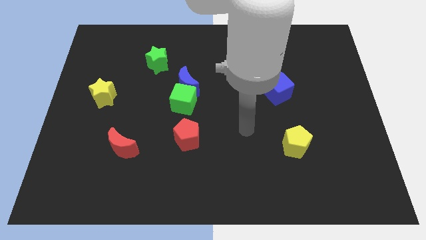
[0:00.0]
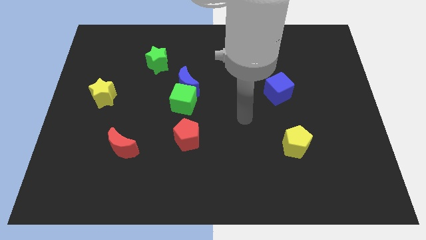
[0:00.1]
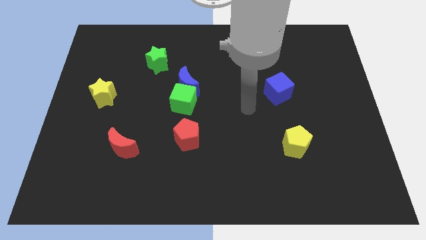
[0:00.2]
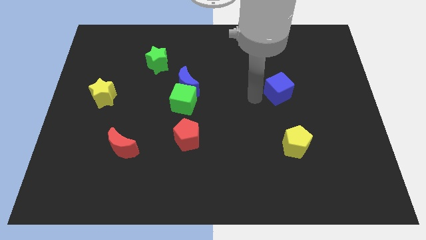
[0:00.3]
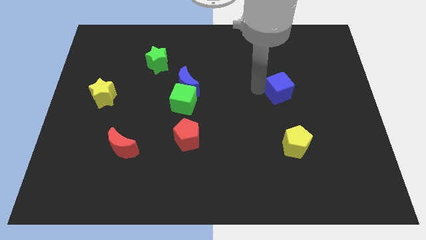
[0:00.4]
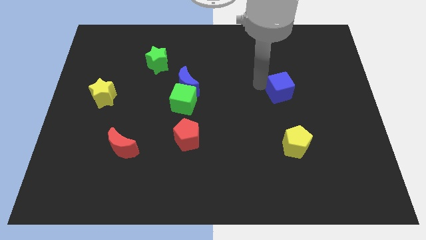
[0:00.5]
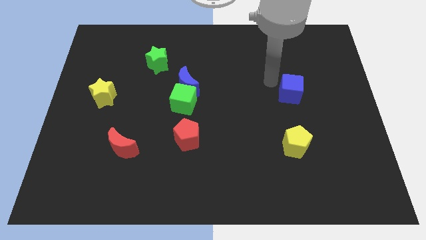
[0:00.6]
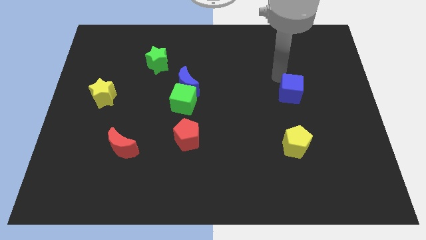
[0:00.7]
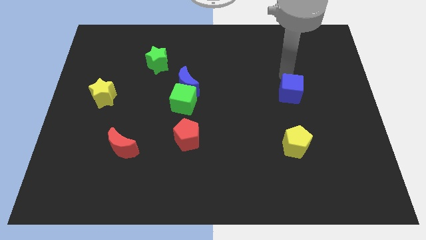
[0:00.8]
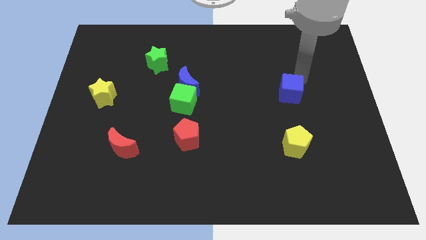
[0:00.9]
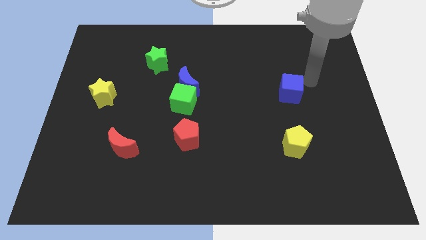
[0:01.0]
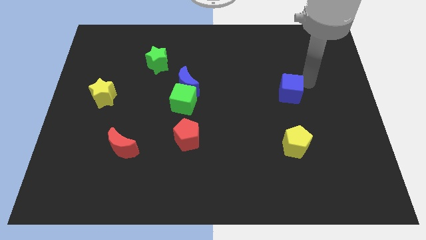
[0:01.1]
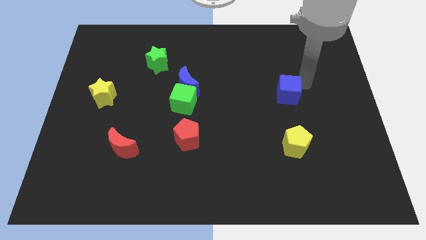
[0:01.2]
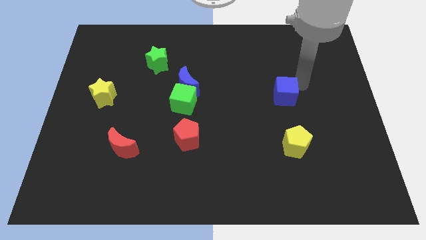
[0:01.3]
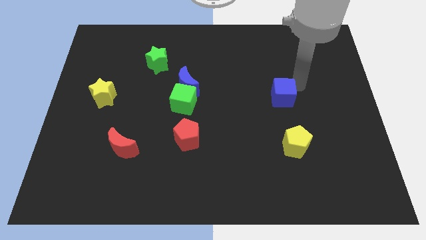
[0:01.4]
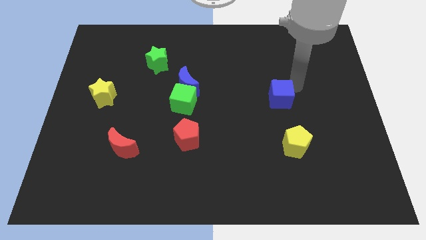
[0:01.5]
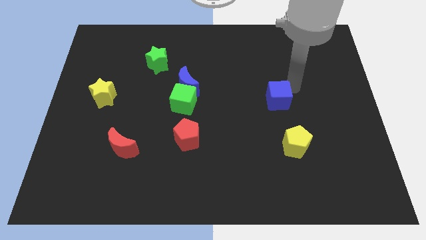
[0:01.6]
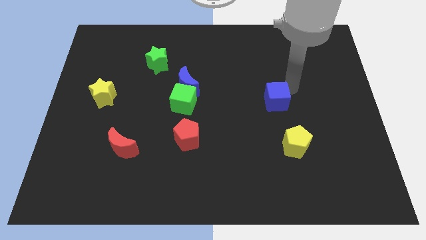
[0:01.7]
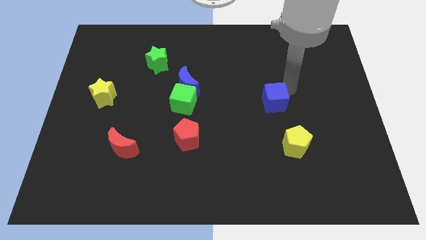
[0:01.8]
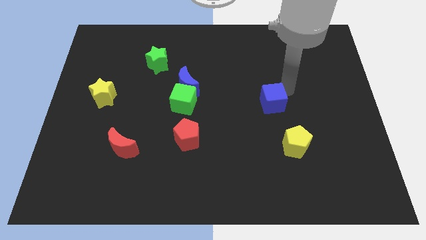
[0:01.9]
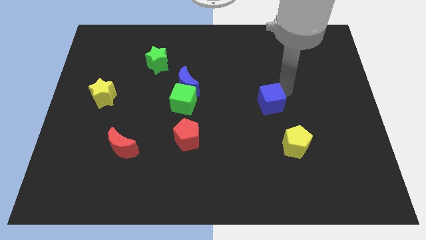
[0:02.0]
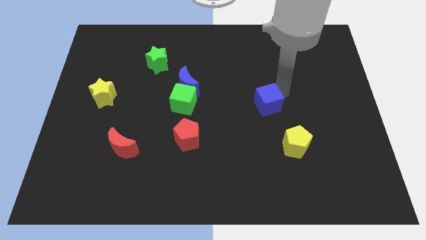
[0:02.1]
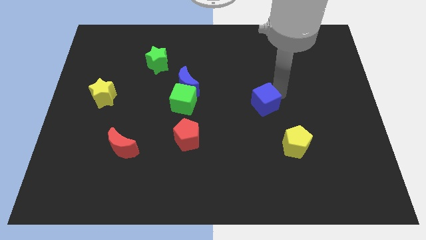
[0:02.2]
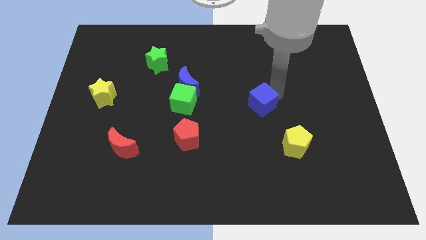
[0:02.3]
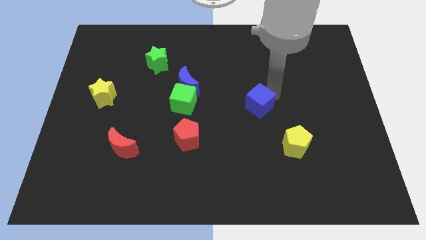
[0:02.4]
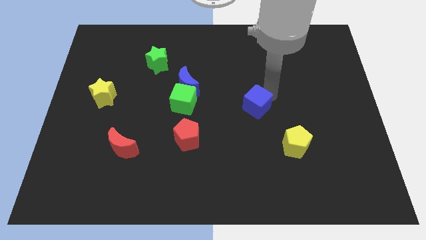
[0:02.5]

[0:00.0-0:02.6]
slightly push the blue cube downwards and left

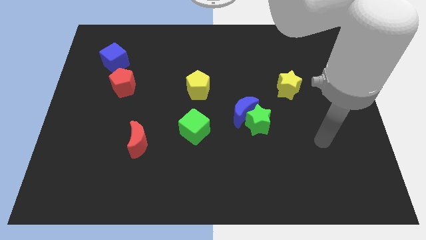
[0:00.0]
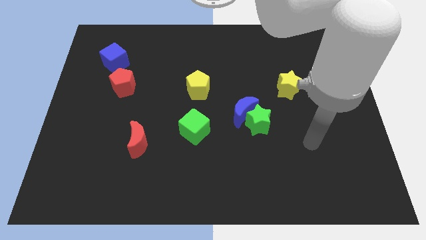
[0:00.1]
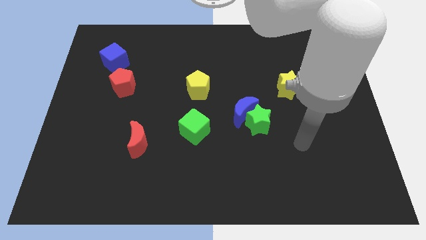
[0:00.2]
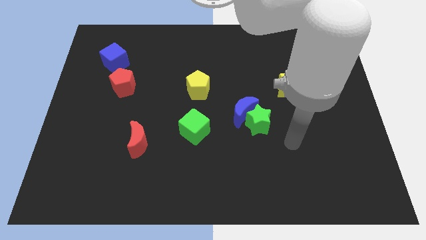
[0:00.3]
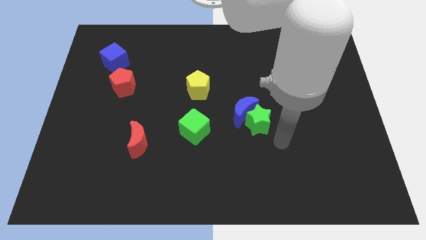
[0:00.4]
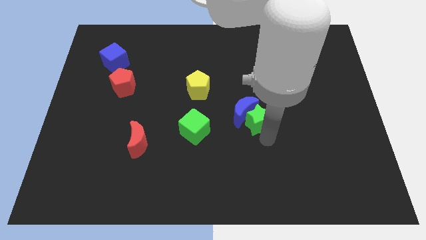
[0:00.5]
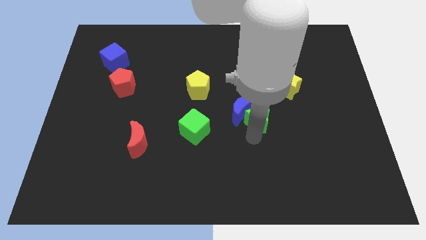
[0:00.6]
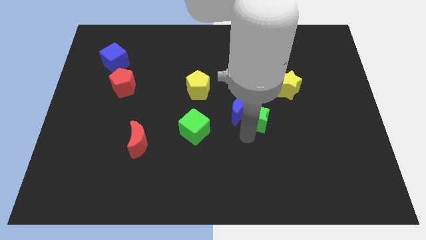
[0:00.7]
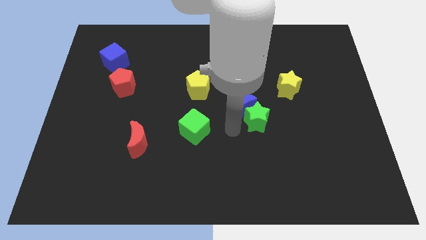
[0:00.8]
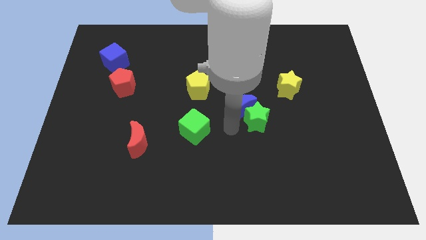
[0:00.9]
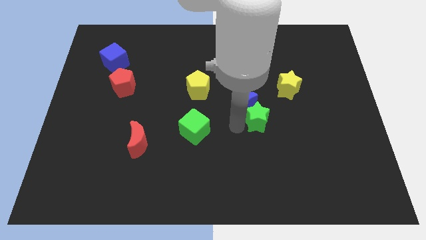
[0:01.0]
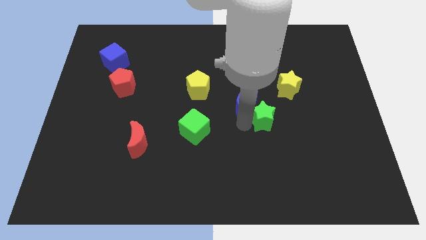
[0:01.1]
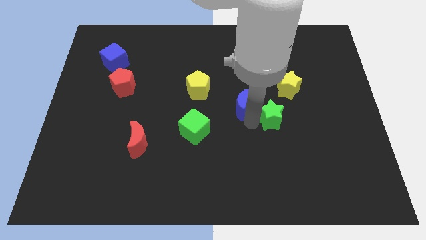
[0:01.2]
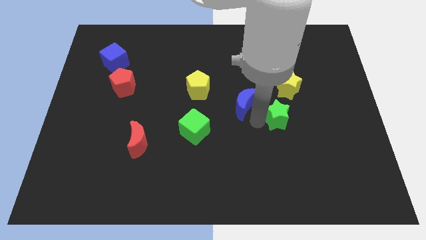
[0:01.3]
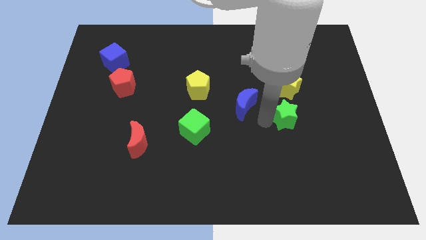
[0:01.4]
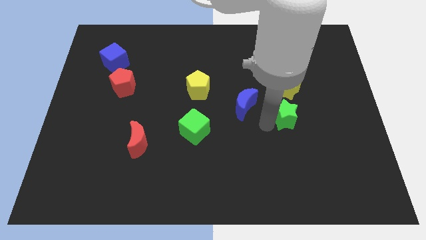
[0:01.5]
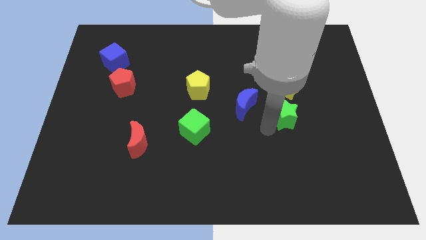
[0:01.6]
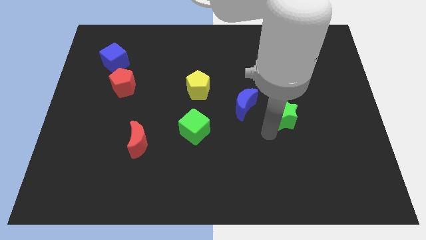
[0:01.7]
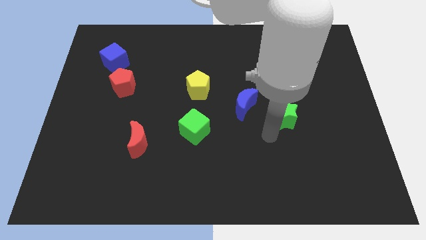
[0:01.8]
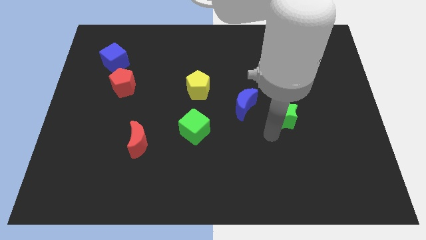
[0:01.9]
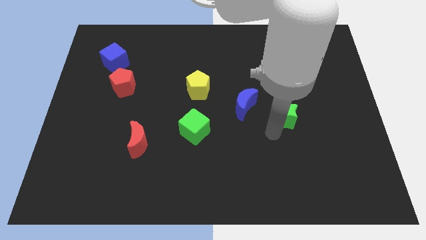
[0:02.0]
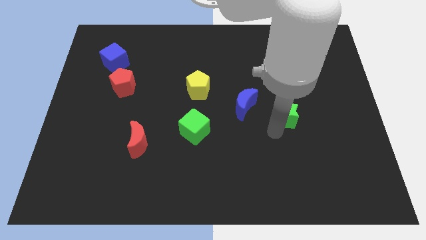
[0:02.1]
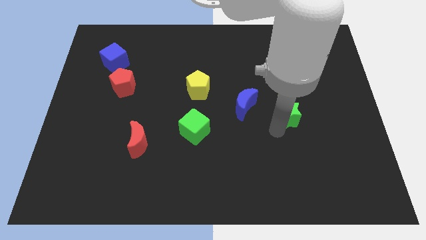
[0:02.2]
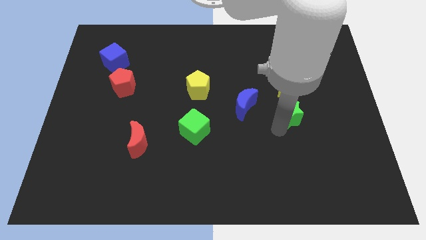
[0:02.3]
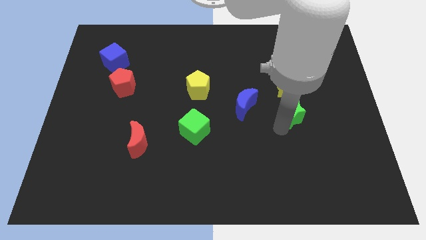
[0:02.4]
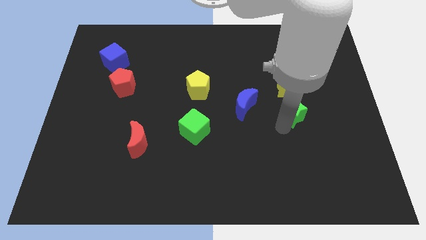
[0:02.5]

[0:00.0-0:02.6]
slightly move the green star upwards and then to the right

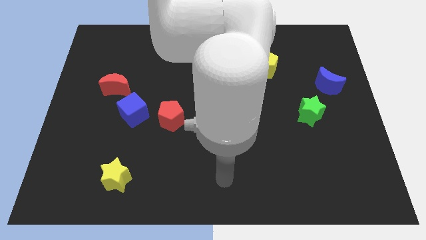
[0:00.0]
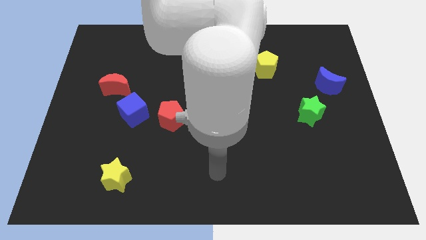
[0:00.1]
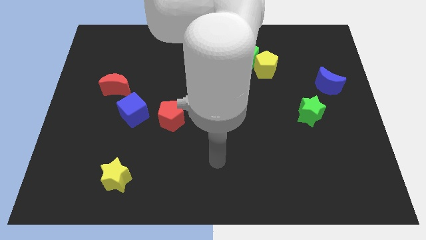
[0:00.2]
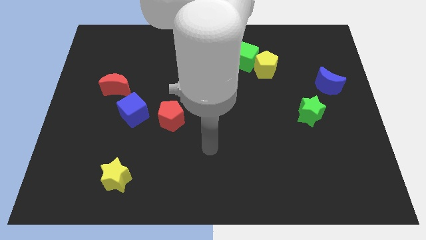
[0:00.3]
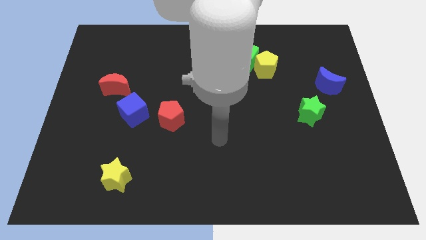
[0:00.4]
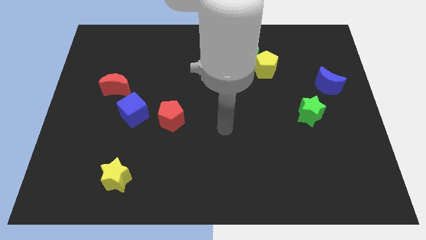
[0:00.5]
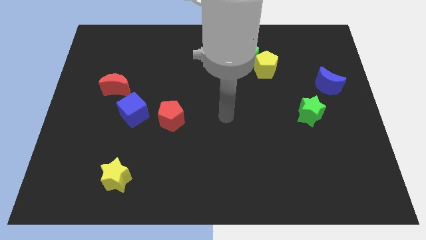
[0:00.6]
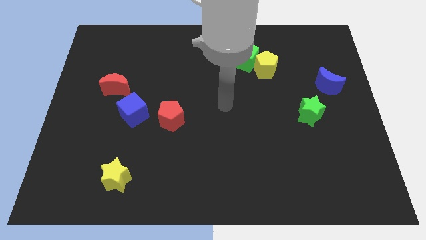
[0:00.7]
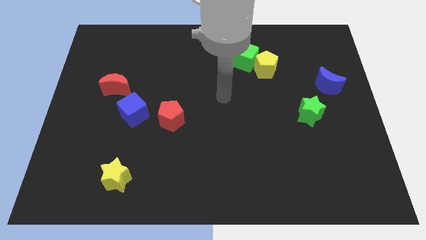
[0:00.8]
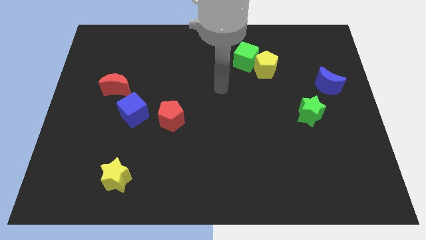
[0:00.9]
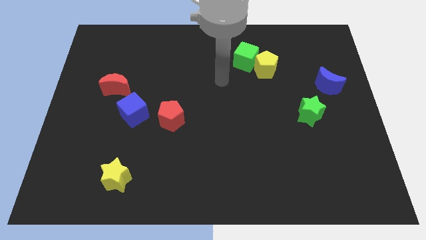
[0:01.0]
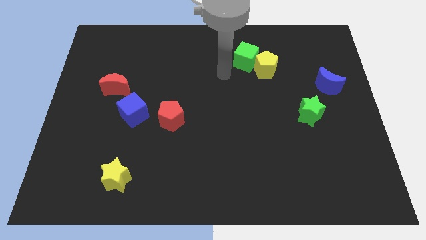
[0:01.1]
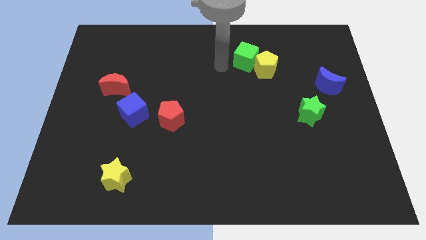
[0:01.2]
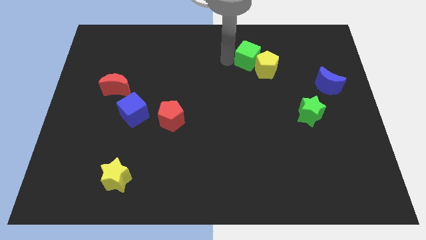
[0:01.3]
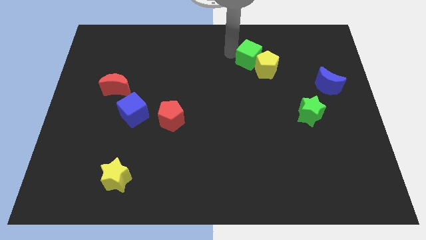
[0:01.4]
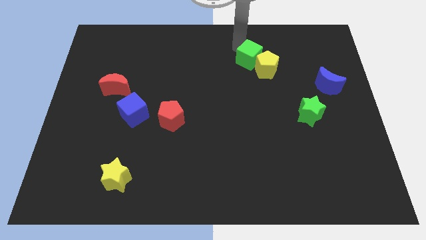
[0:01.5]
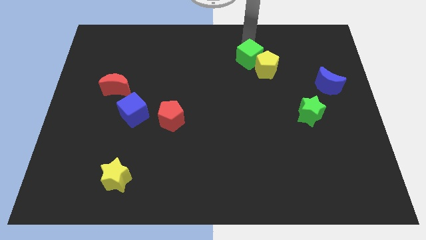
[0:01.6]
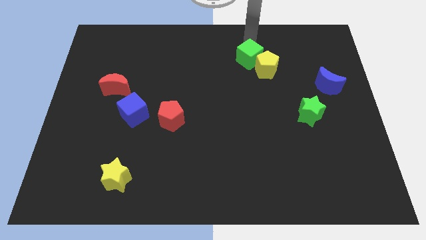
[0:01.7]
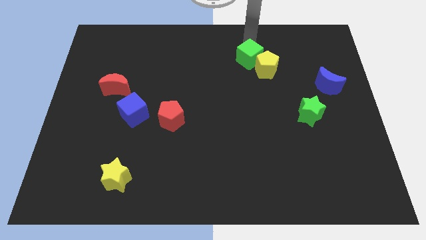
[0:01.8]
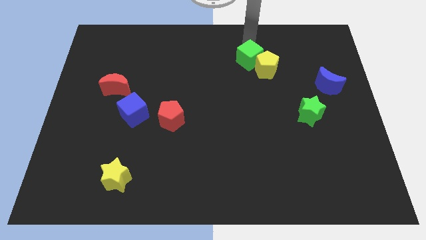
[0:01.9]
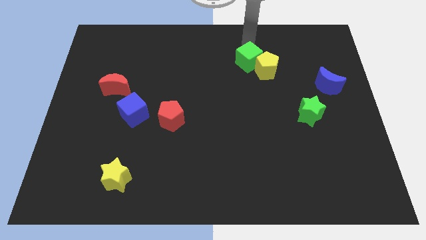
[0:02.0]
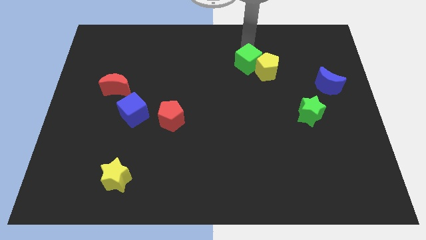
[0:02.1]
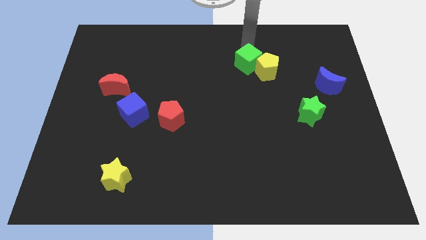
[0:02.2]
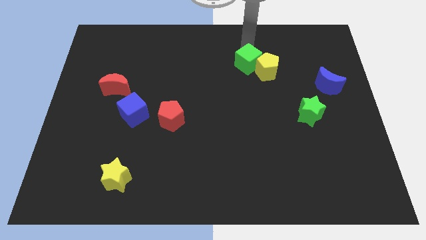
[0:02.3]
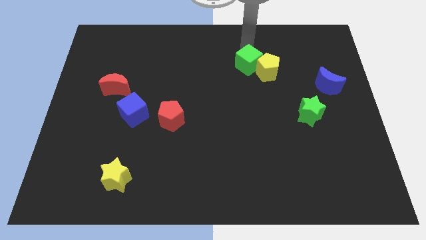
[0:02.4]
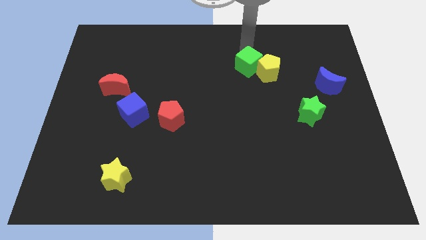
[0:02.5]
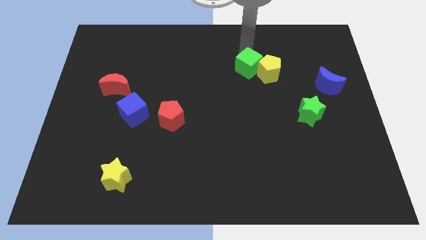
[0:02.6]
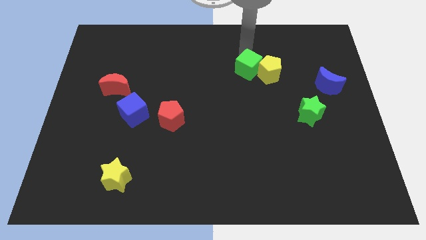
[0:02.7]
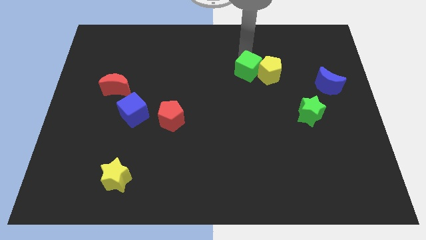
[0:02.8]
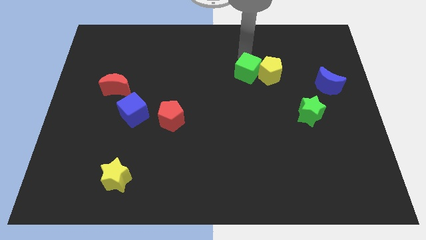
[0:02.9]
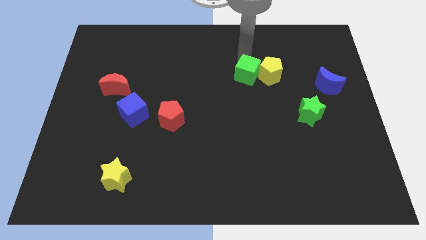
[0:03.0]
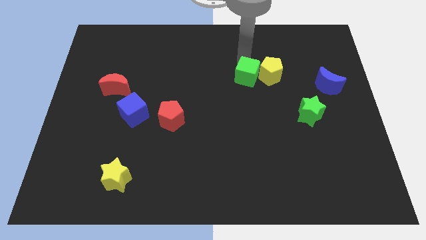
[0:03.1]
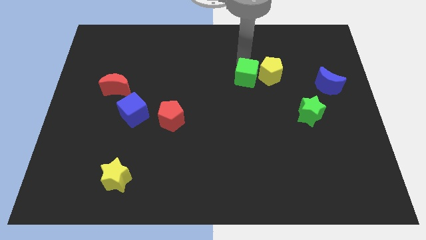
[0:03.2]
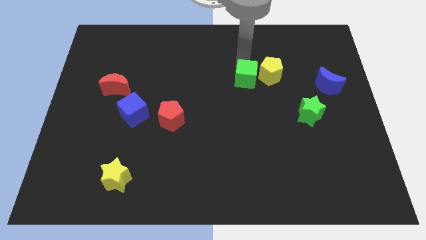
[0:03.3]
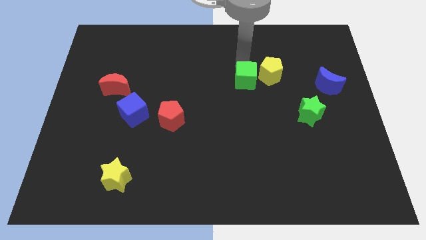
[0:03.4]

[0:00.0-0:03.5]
move the green cube somewhat down
